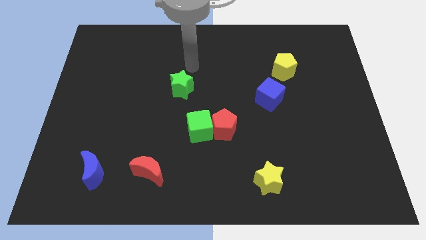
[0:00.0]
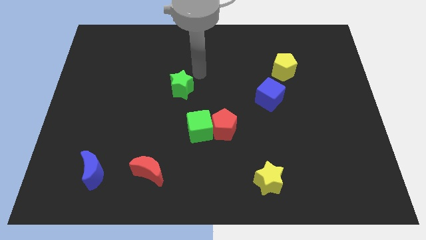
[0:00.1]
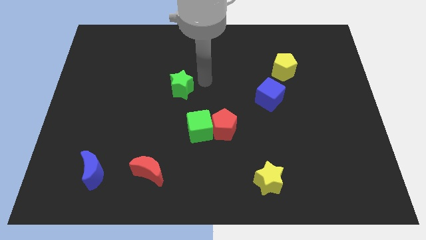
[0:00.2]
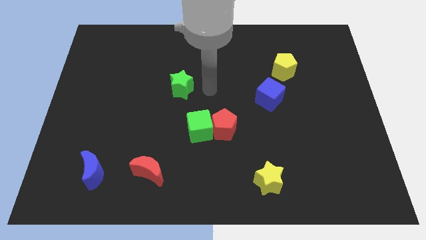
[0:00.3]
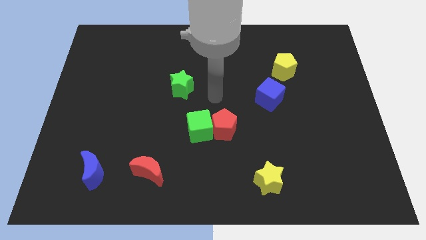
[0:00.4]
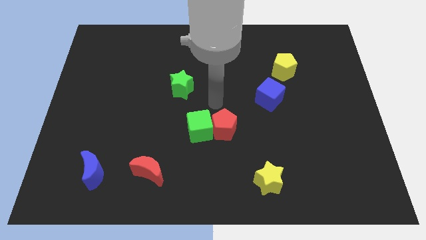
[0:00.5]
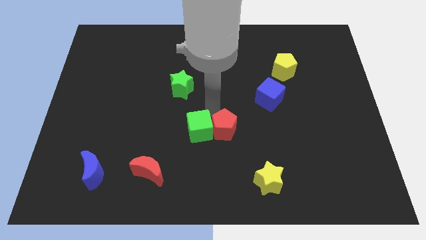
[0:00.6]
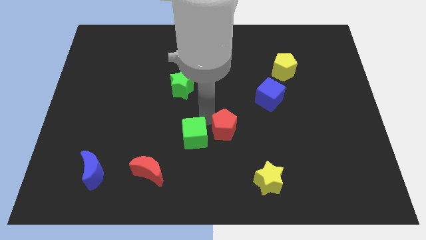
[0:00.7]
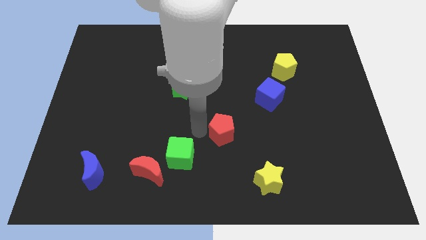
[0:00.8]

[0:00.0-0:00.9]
separate the red pentagon from the green cube

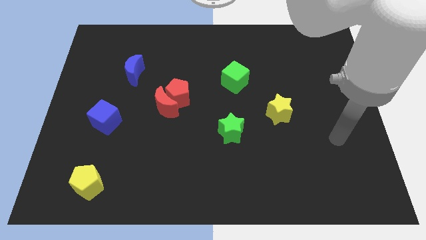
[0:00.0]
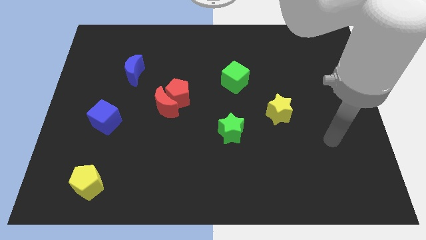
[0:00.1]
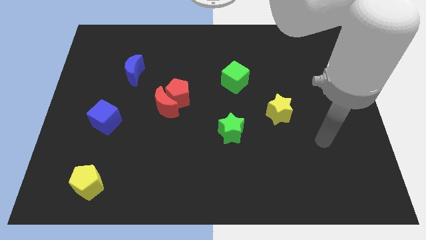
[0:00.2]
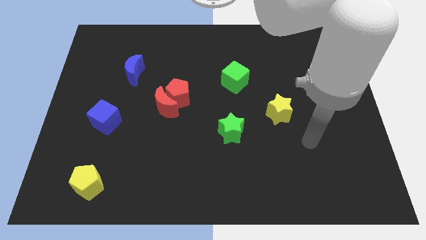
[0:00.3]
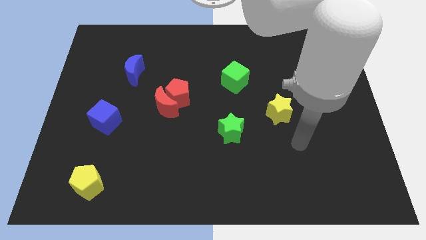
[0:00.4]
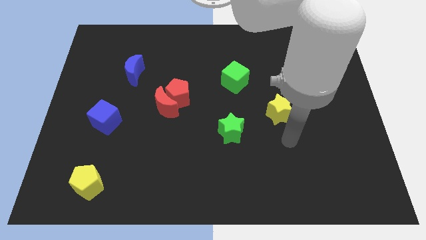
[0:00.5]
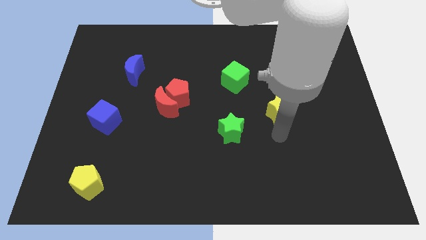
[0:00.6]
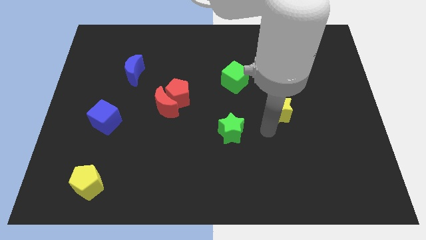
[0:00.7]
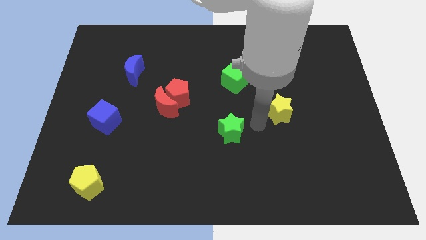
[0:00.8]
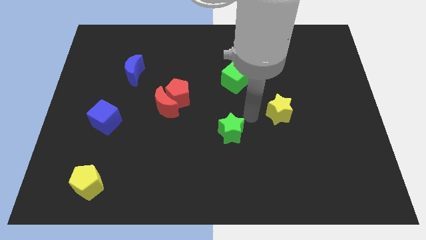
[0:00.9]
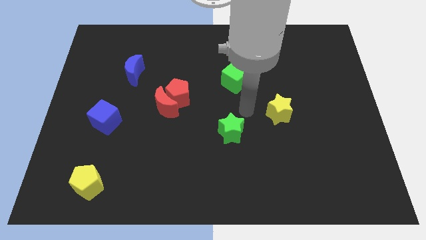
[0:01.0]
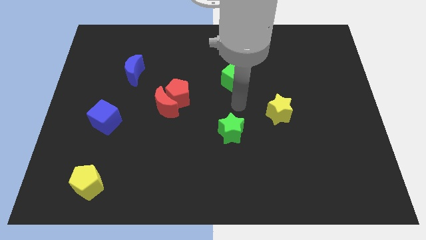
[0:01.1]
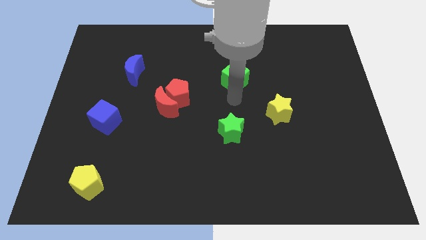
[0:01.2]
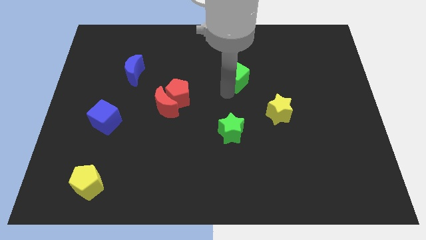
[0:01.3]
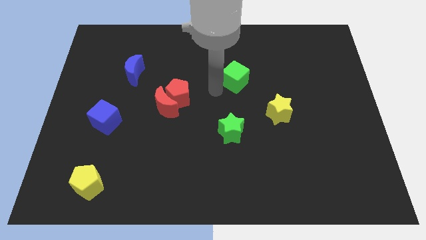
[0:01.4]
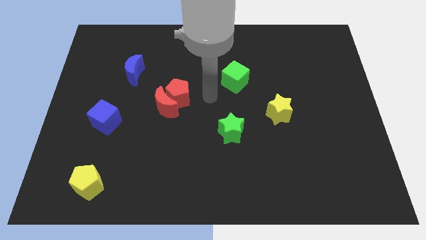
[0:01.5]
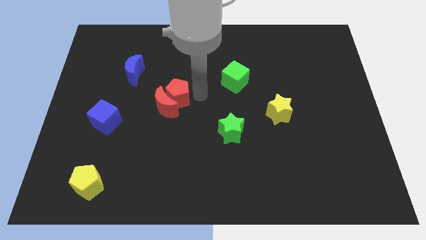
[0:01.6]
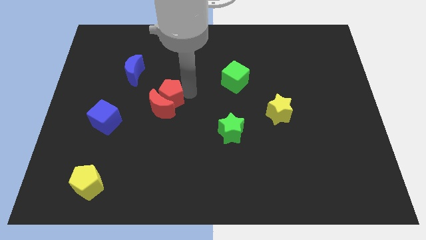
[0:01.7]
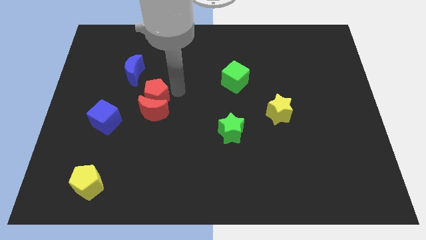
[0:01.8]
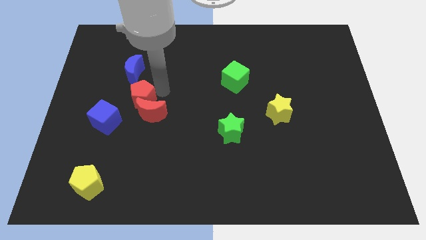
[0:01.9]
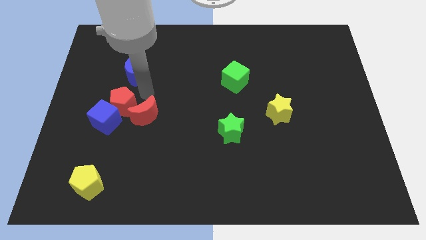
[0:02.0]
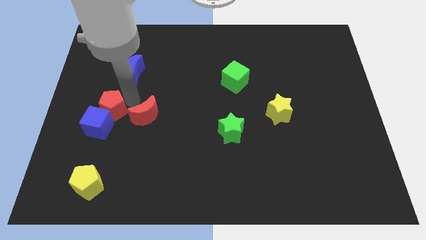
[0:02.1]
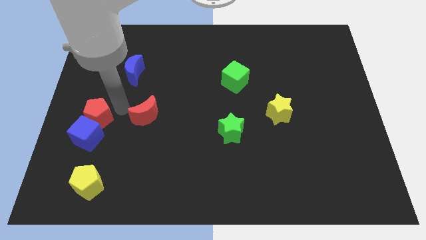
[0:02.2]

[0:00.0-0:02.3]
pull the red moon apart from the red pentagon

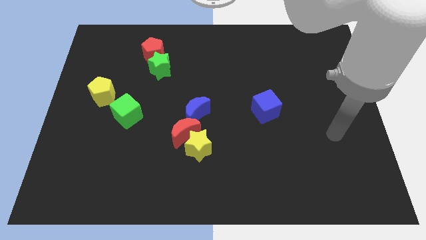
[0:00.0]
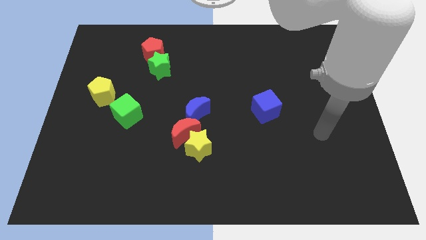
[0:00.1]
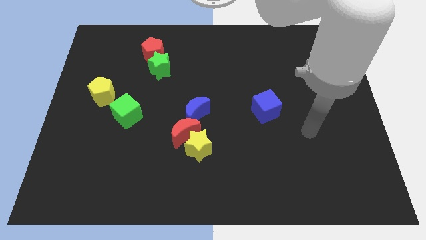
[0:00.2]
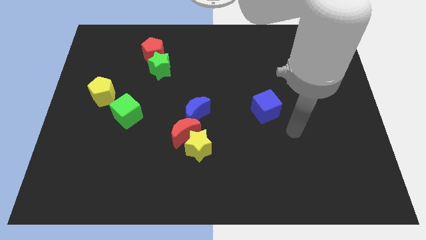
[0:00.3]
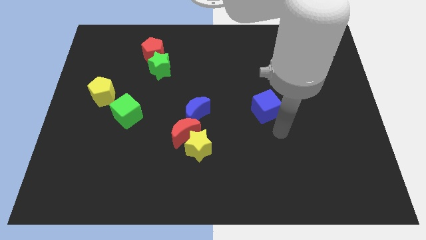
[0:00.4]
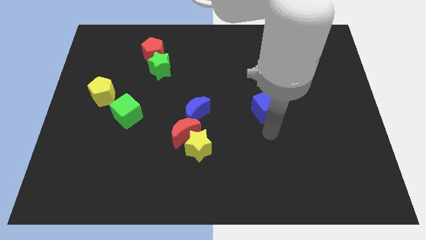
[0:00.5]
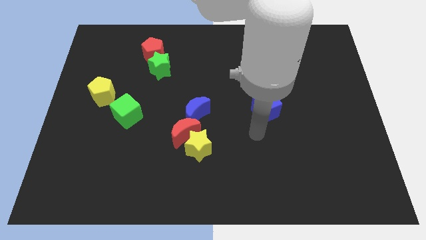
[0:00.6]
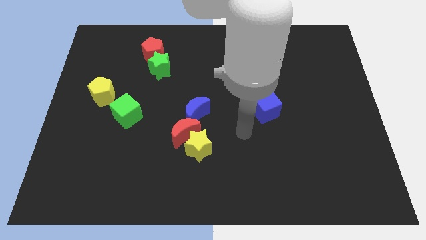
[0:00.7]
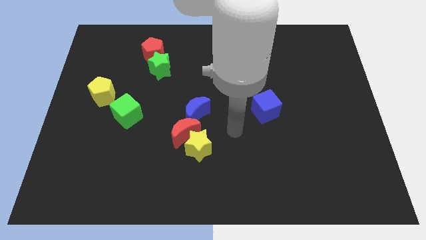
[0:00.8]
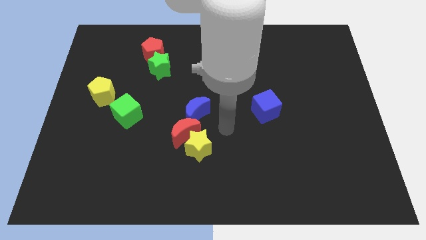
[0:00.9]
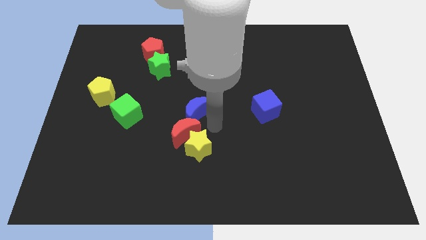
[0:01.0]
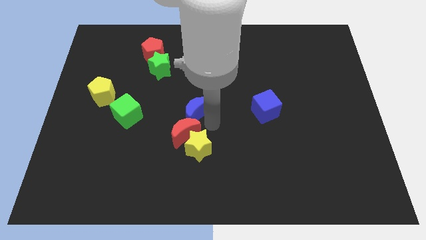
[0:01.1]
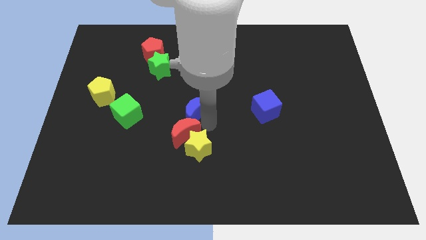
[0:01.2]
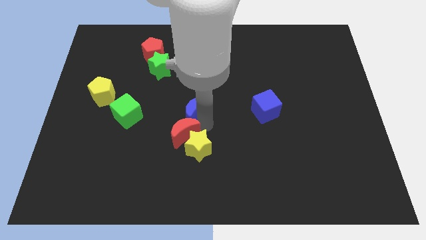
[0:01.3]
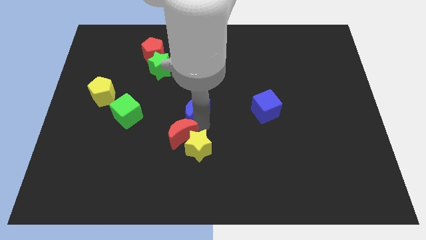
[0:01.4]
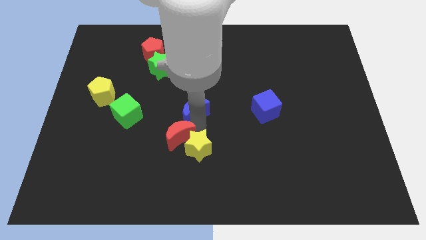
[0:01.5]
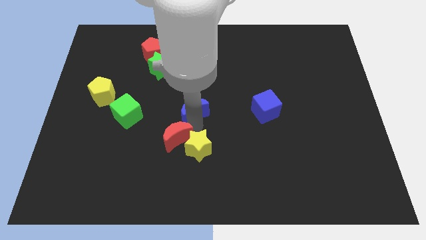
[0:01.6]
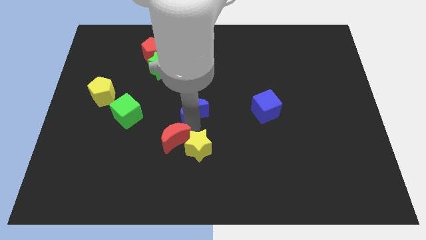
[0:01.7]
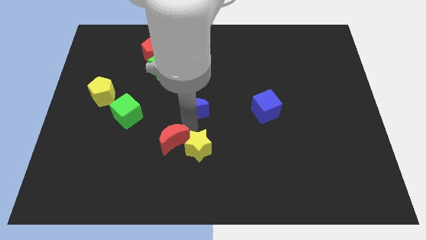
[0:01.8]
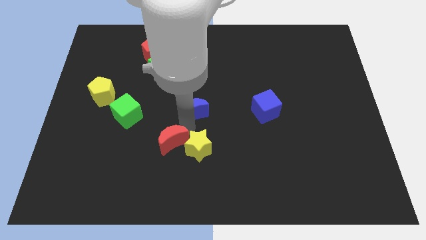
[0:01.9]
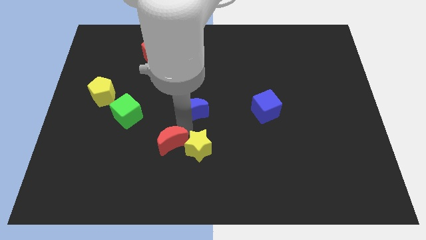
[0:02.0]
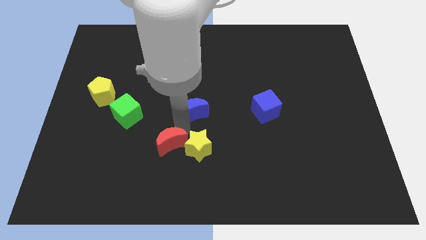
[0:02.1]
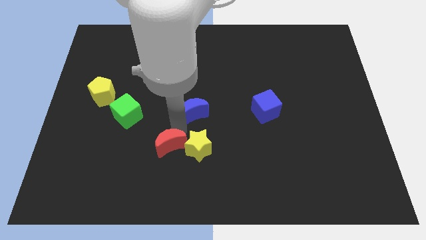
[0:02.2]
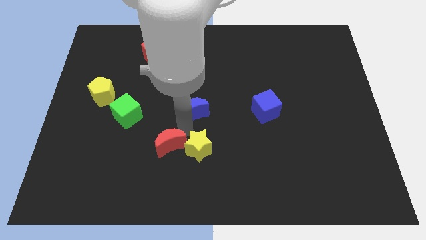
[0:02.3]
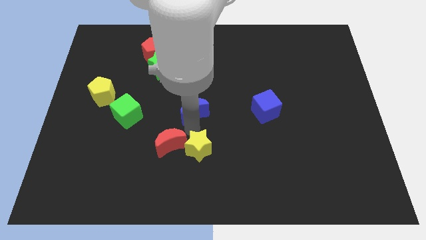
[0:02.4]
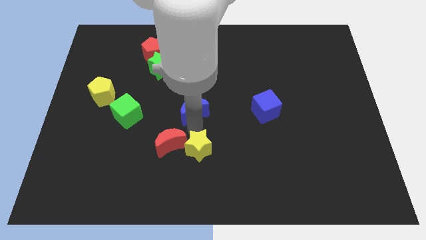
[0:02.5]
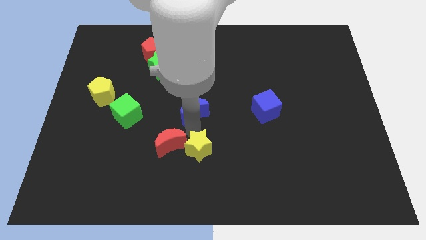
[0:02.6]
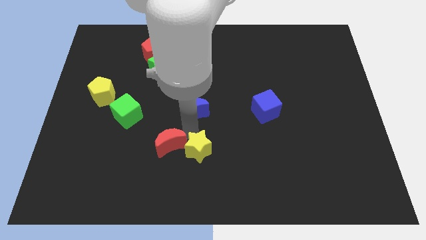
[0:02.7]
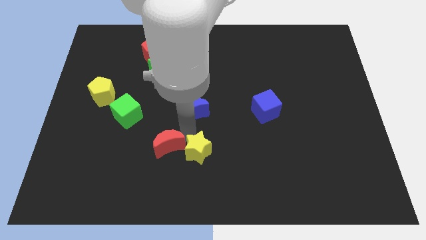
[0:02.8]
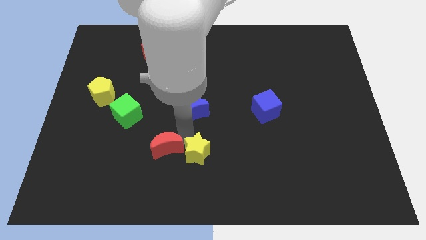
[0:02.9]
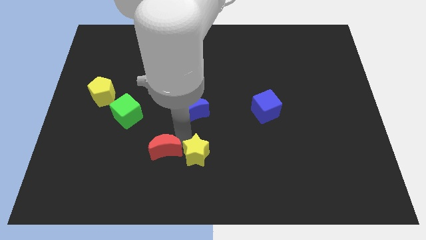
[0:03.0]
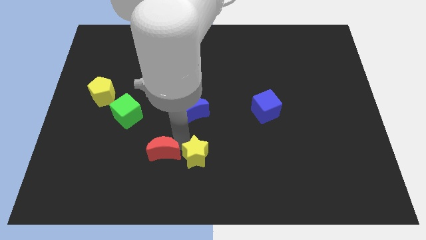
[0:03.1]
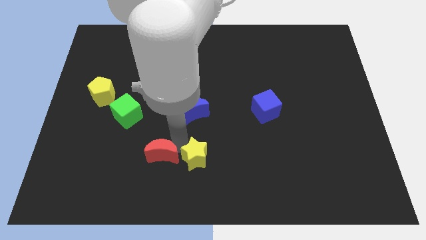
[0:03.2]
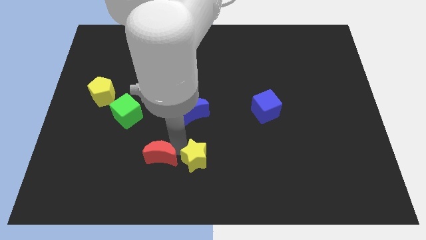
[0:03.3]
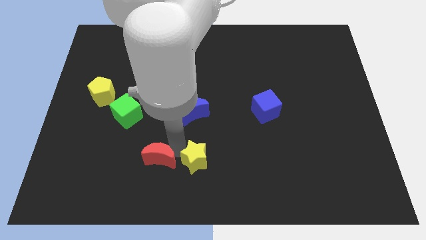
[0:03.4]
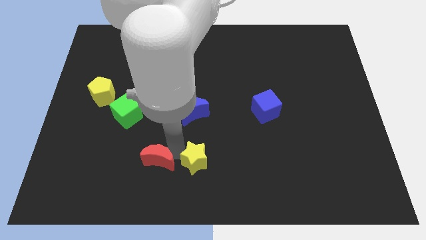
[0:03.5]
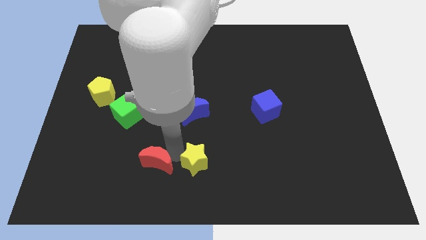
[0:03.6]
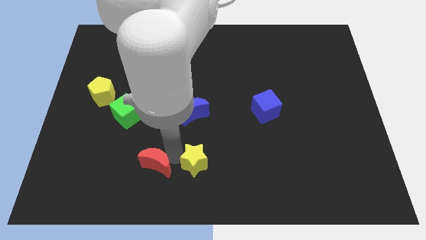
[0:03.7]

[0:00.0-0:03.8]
move the red moon away from the yellow star and blue moon

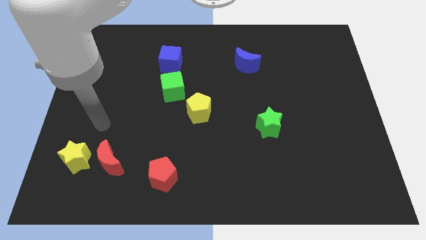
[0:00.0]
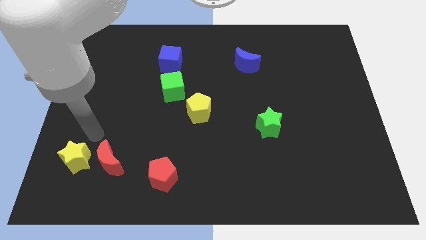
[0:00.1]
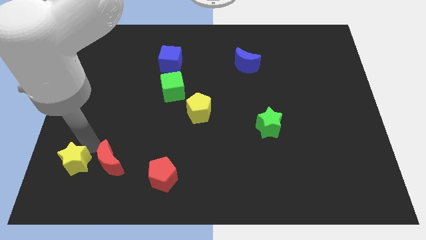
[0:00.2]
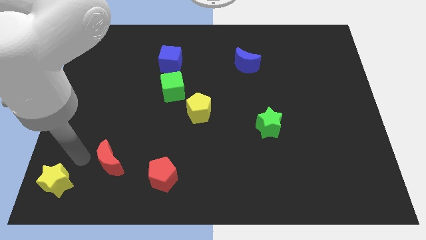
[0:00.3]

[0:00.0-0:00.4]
move the red moon away from the yellow star

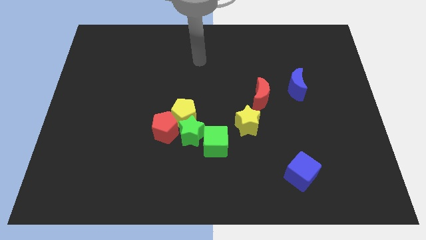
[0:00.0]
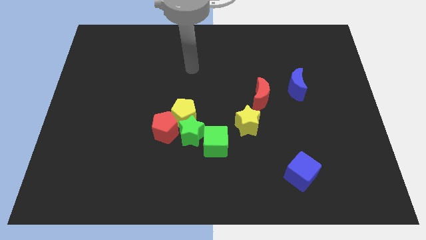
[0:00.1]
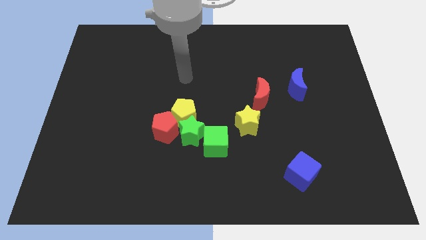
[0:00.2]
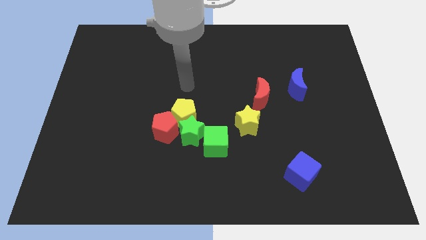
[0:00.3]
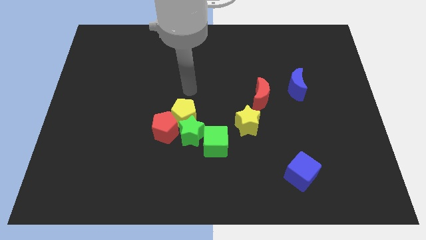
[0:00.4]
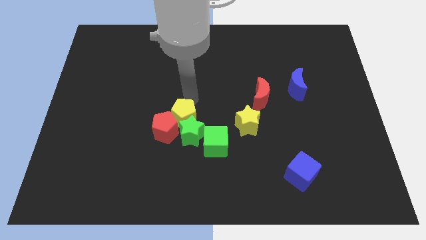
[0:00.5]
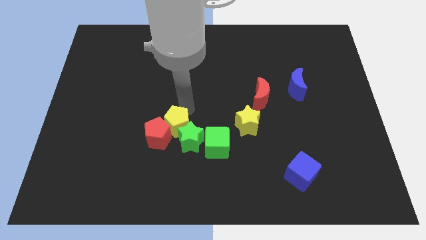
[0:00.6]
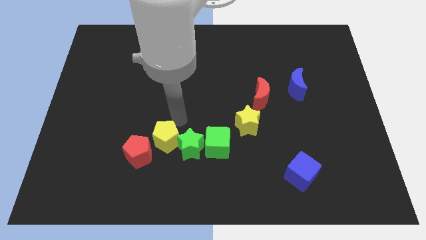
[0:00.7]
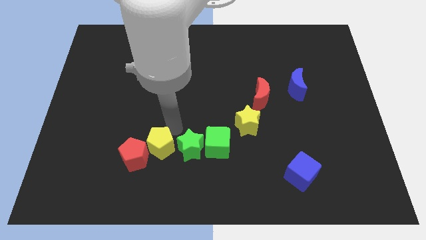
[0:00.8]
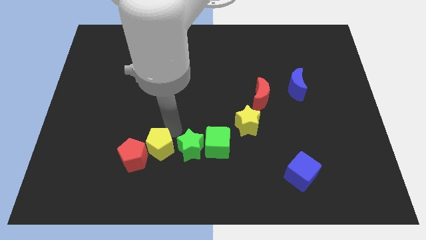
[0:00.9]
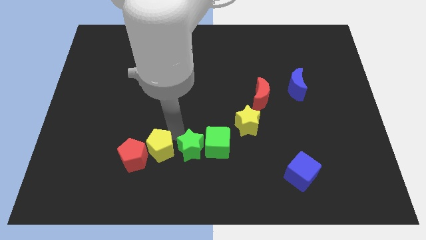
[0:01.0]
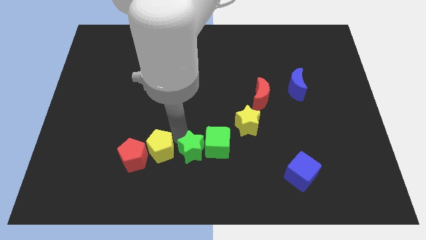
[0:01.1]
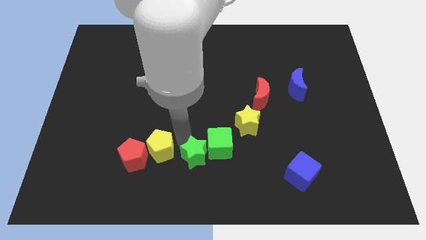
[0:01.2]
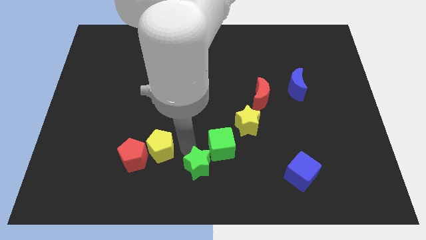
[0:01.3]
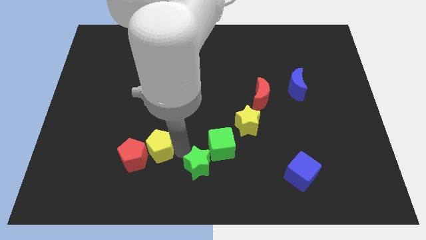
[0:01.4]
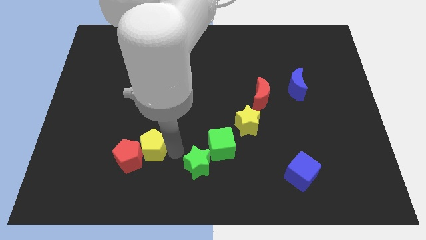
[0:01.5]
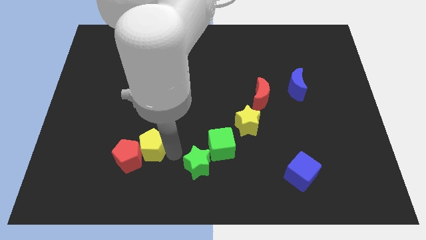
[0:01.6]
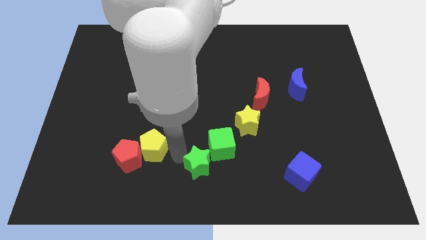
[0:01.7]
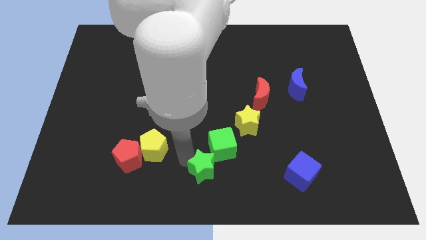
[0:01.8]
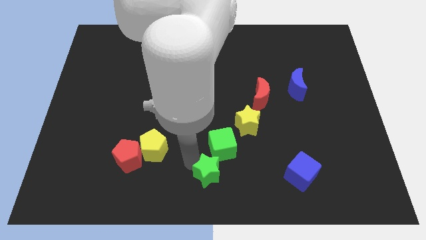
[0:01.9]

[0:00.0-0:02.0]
separate the green star from the yellow pentagon, green cube, and red pentagon
